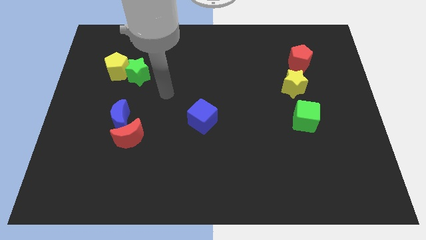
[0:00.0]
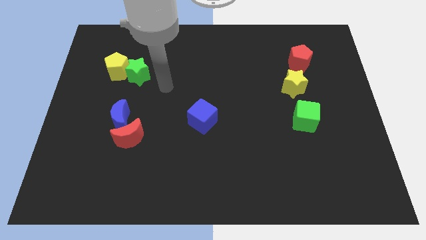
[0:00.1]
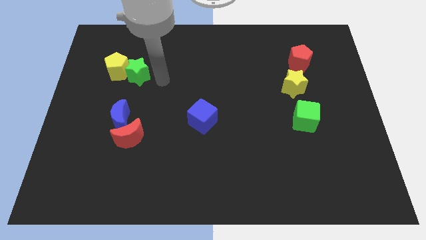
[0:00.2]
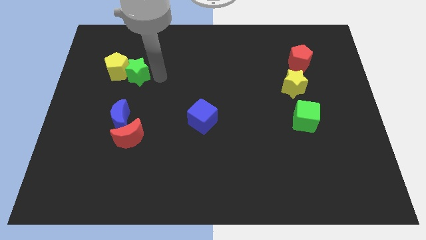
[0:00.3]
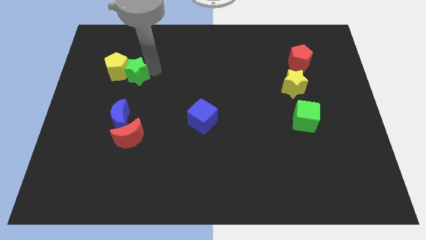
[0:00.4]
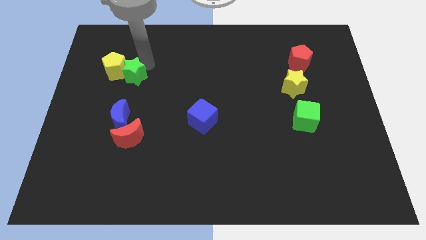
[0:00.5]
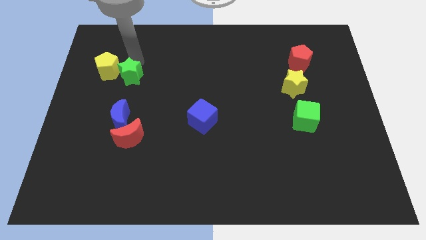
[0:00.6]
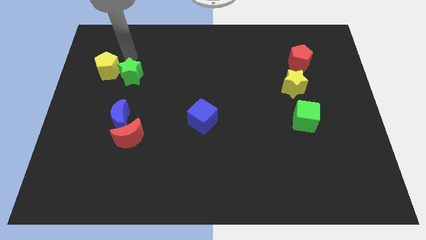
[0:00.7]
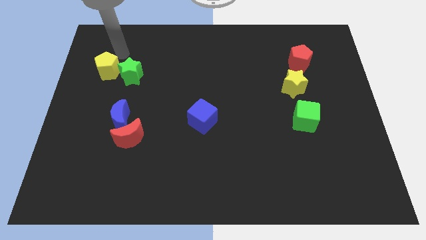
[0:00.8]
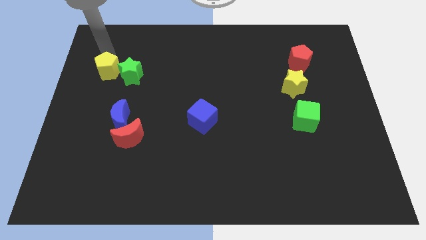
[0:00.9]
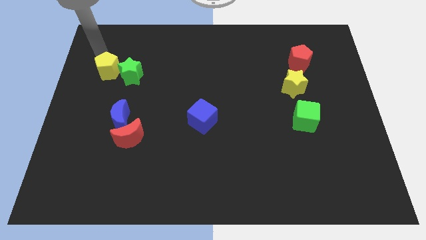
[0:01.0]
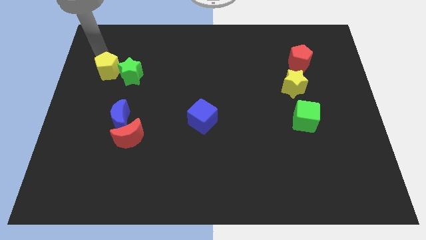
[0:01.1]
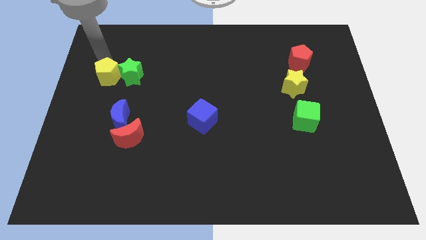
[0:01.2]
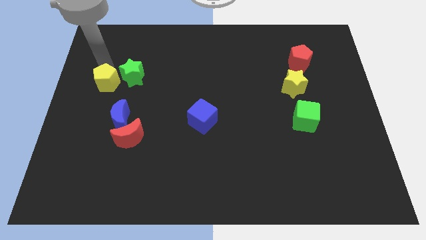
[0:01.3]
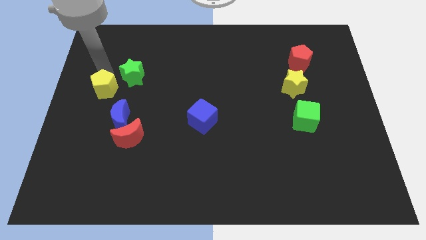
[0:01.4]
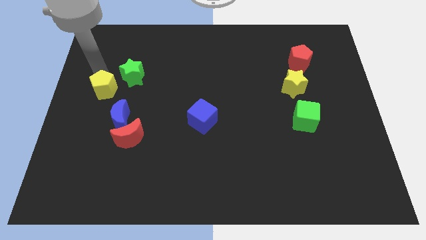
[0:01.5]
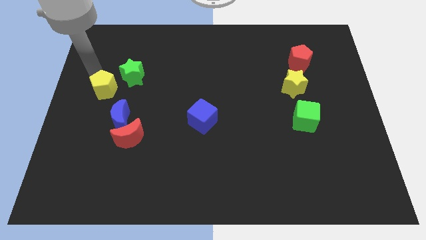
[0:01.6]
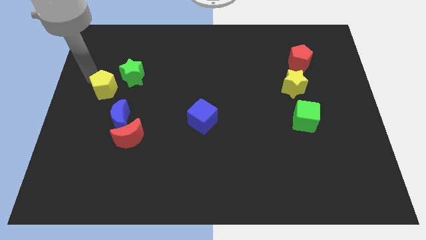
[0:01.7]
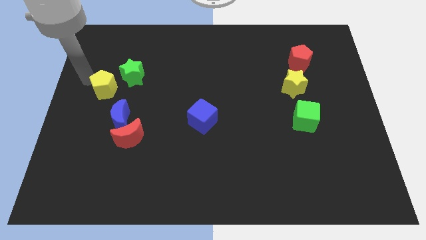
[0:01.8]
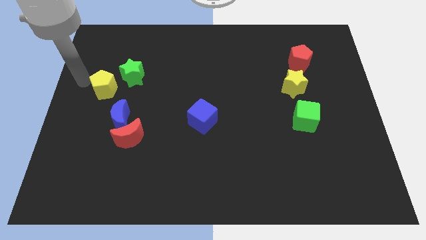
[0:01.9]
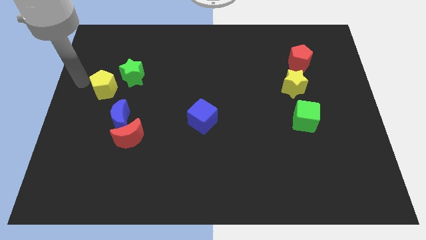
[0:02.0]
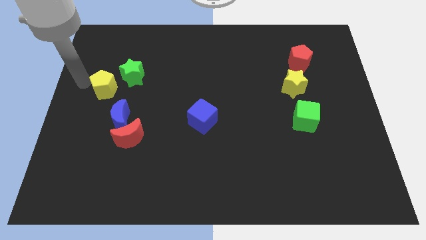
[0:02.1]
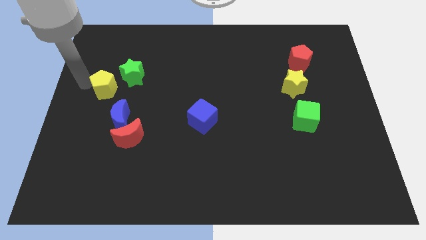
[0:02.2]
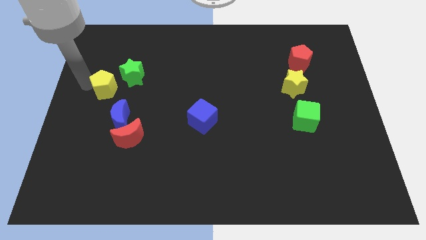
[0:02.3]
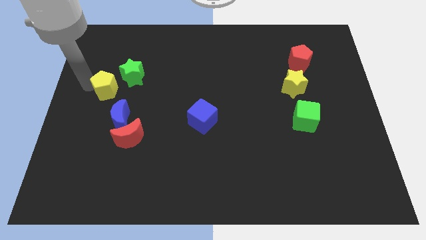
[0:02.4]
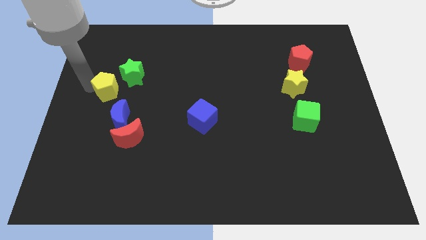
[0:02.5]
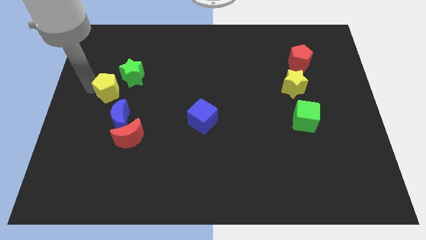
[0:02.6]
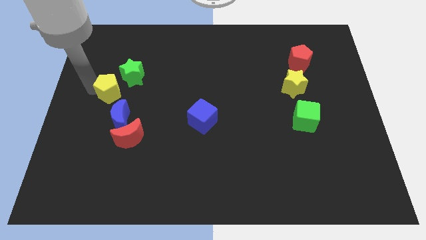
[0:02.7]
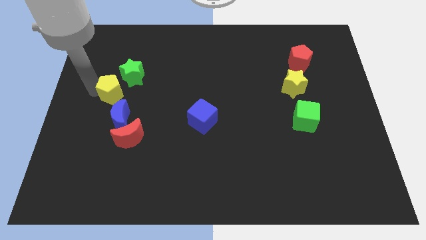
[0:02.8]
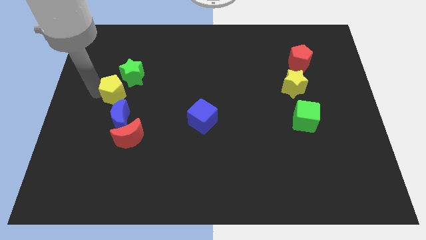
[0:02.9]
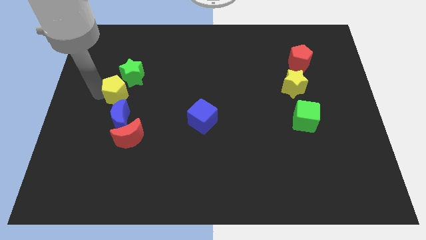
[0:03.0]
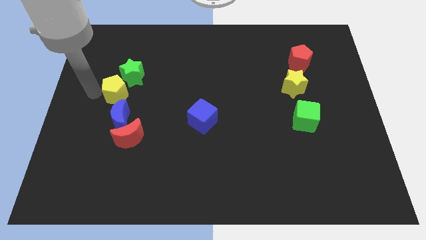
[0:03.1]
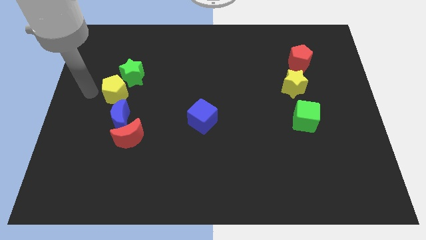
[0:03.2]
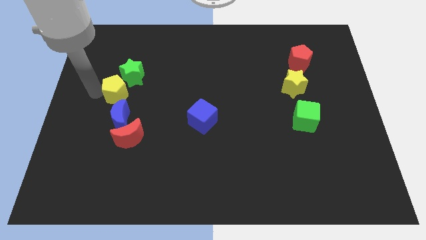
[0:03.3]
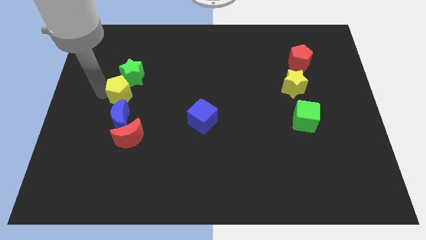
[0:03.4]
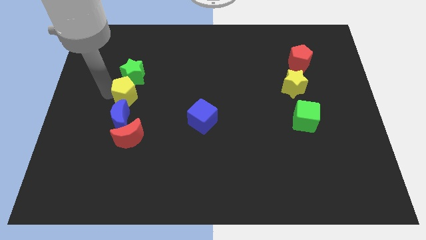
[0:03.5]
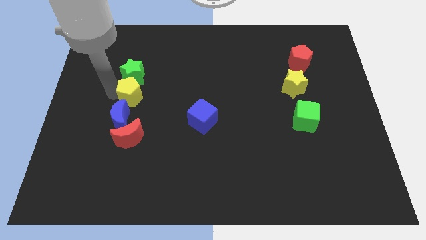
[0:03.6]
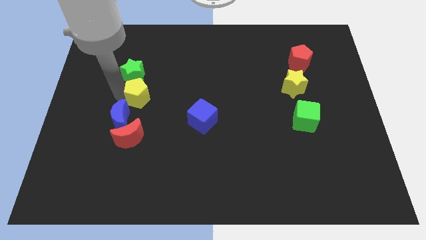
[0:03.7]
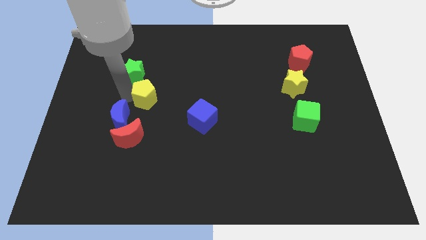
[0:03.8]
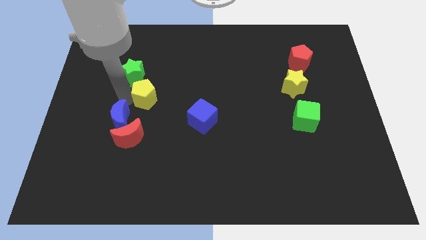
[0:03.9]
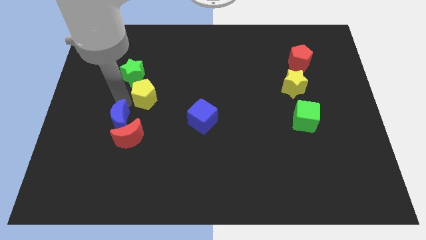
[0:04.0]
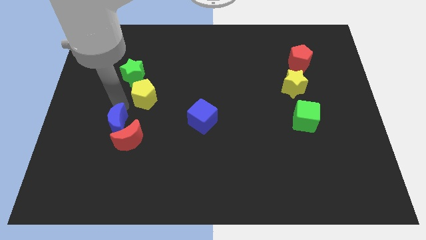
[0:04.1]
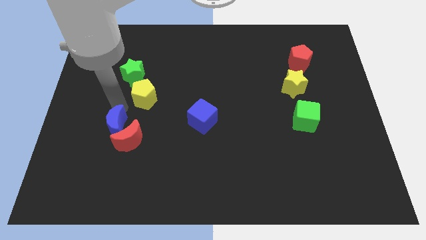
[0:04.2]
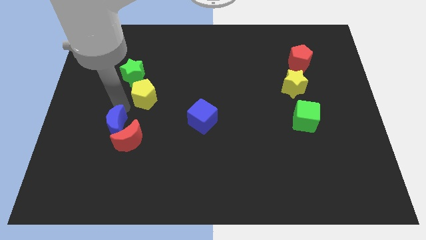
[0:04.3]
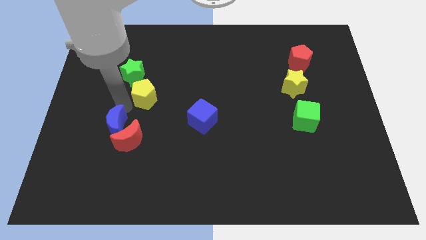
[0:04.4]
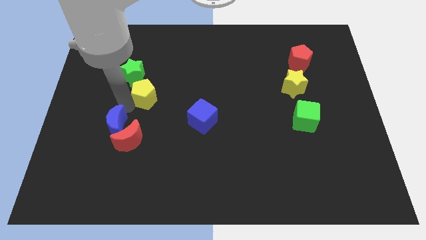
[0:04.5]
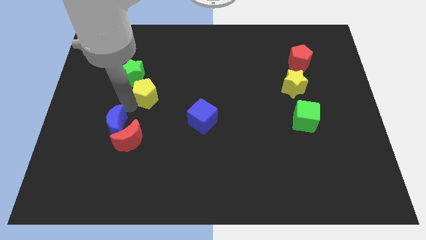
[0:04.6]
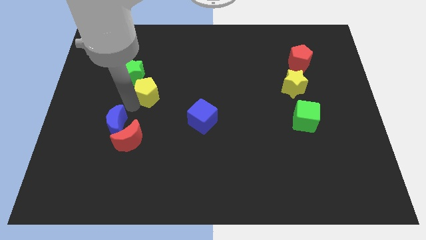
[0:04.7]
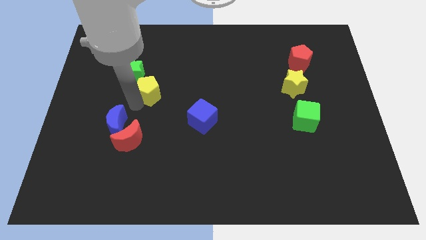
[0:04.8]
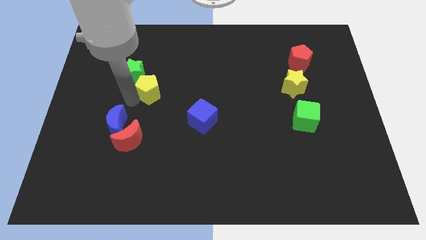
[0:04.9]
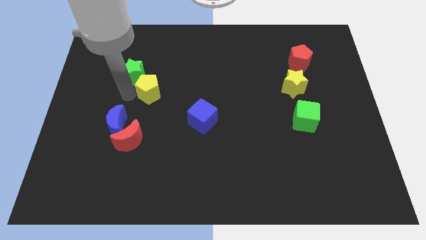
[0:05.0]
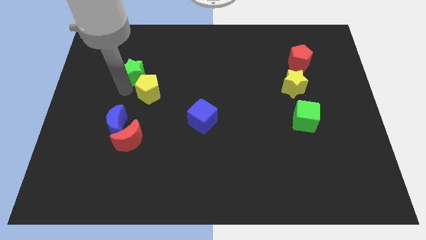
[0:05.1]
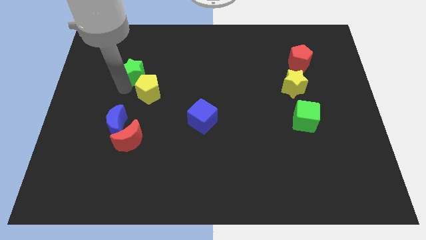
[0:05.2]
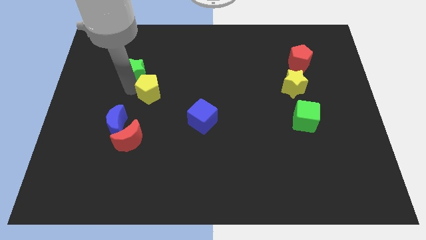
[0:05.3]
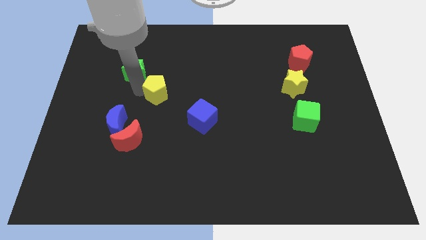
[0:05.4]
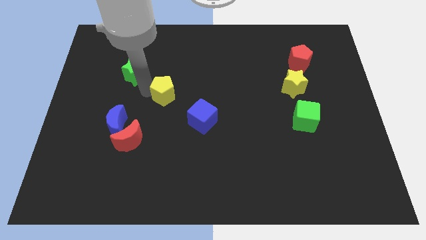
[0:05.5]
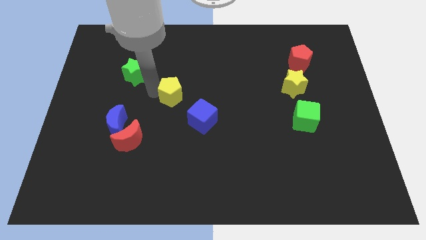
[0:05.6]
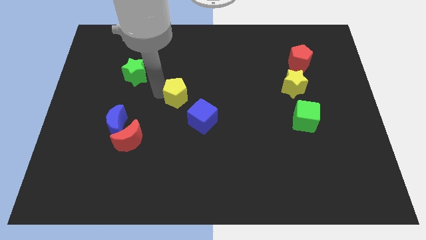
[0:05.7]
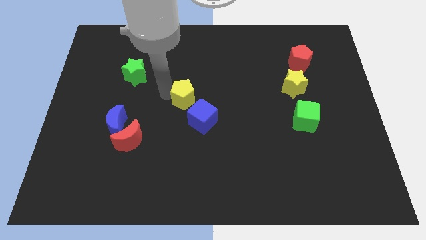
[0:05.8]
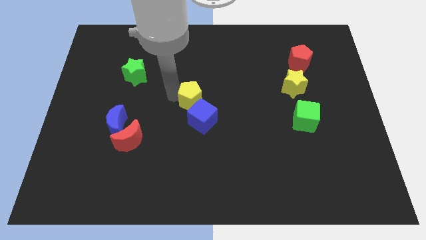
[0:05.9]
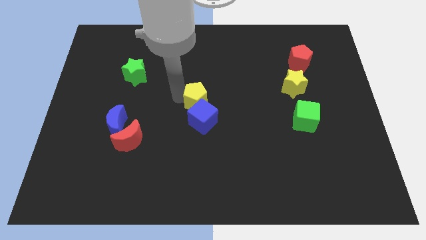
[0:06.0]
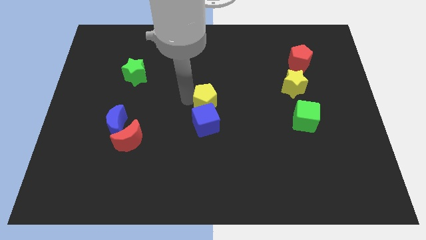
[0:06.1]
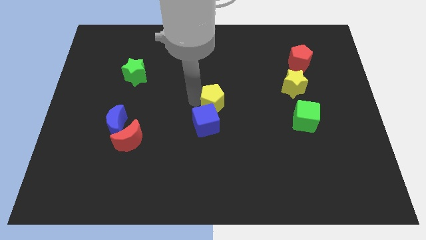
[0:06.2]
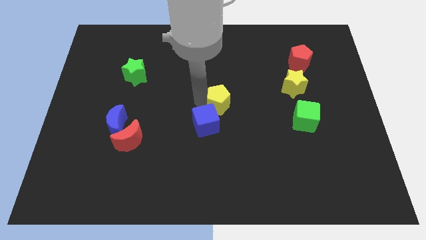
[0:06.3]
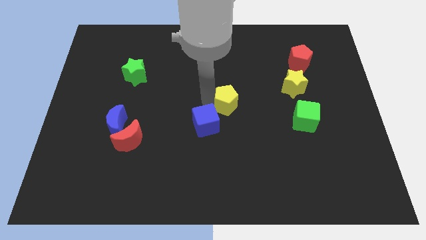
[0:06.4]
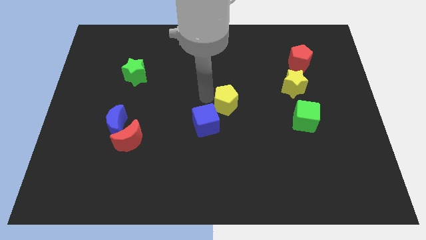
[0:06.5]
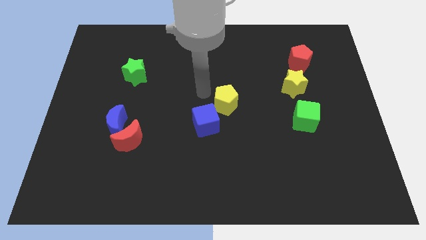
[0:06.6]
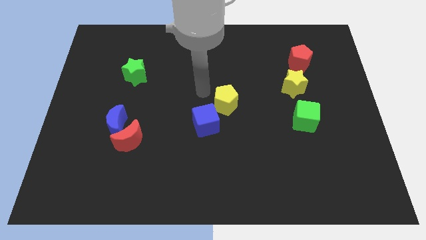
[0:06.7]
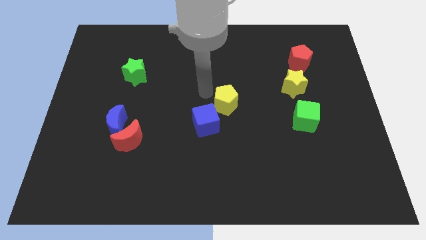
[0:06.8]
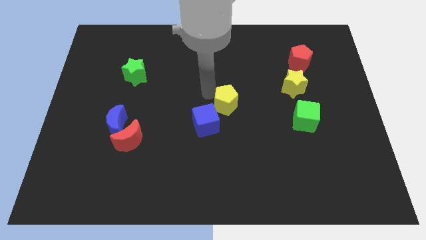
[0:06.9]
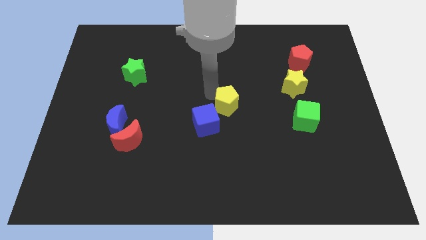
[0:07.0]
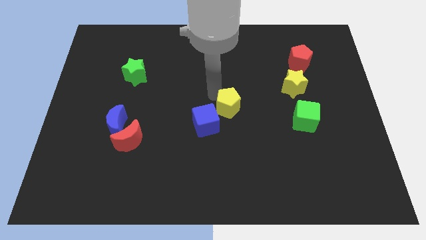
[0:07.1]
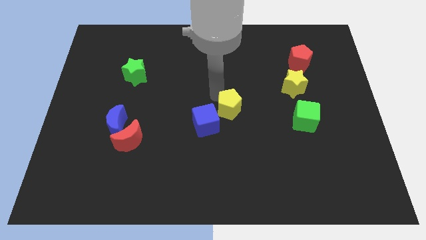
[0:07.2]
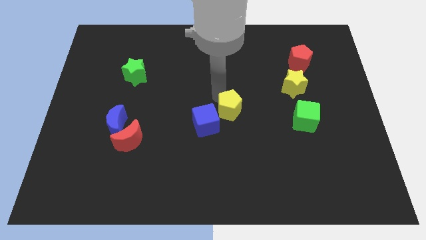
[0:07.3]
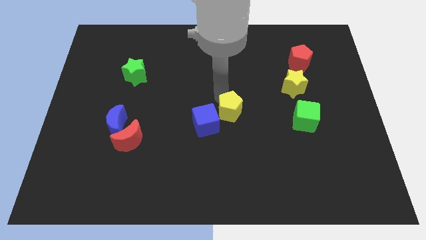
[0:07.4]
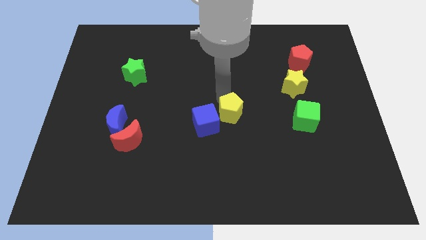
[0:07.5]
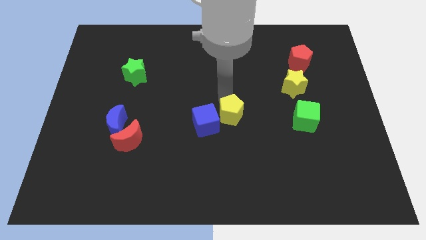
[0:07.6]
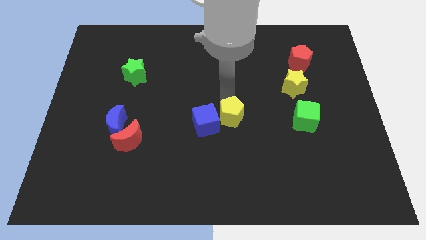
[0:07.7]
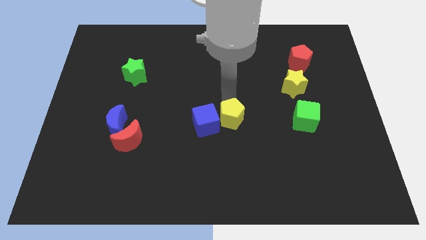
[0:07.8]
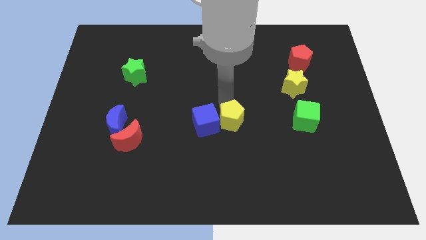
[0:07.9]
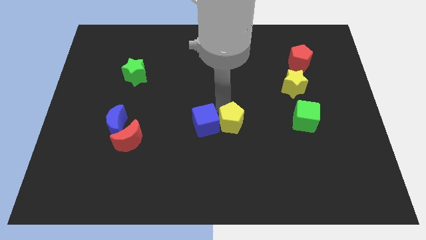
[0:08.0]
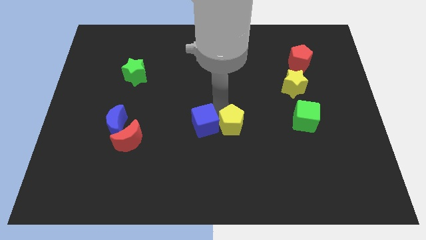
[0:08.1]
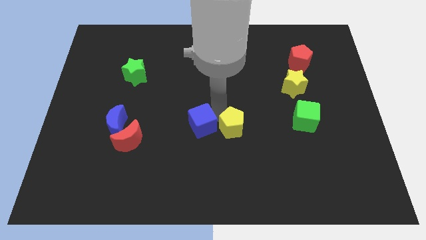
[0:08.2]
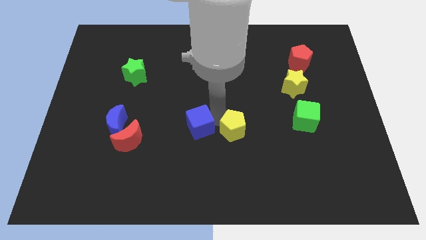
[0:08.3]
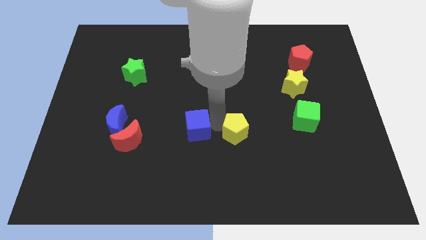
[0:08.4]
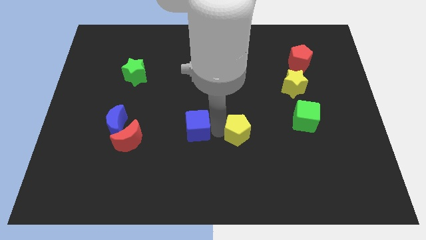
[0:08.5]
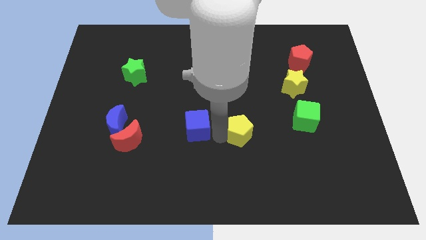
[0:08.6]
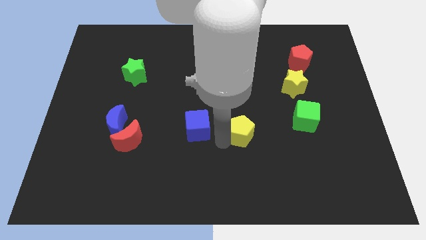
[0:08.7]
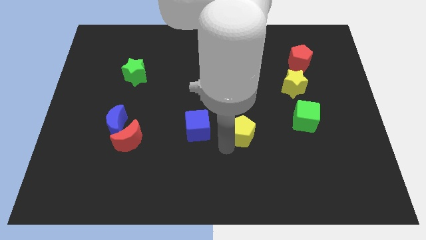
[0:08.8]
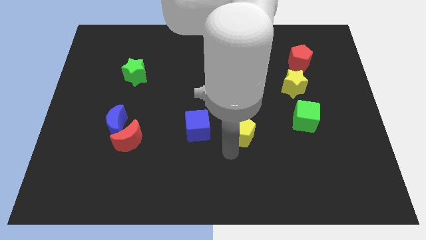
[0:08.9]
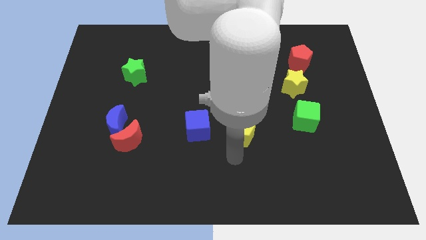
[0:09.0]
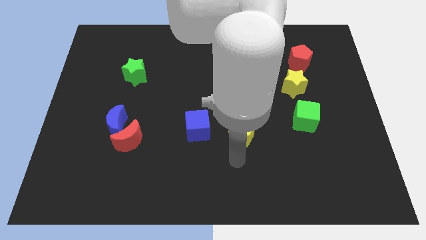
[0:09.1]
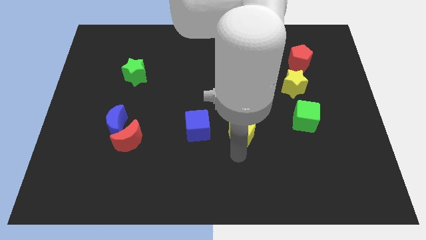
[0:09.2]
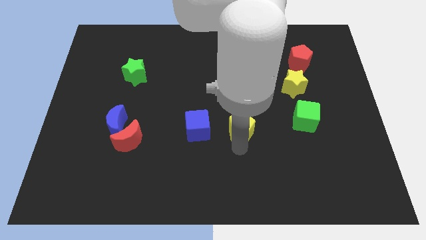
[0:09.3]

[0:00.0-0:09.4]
slide the yellow pentagon just left of the green cube
